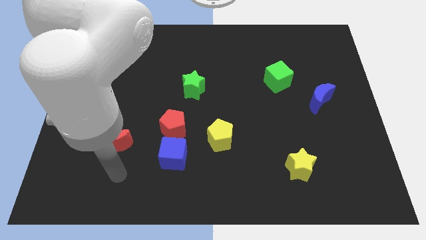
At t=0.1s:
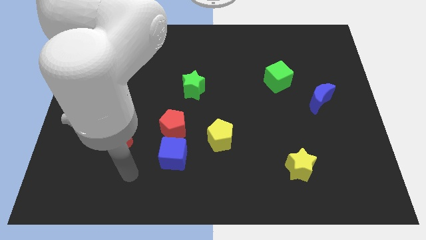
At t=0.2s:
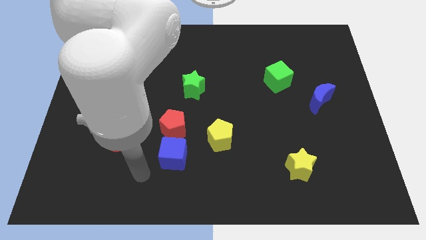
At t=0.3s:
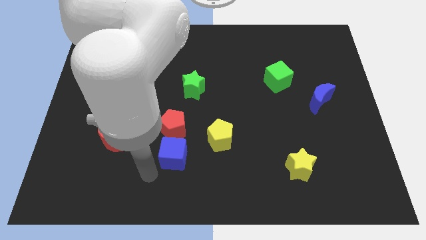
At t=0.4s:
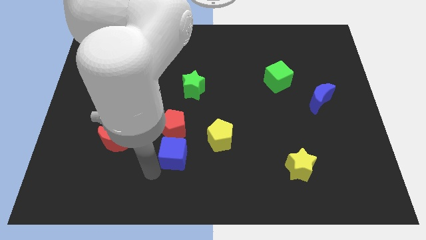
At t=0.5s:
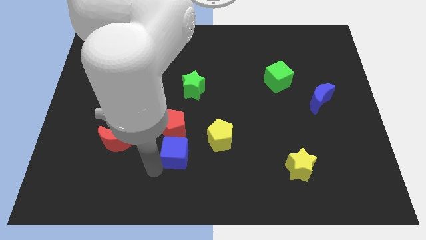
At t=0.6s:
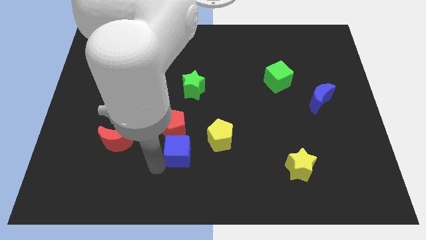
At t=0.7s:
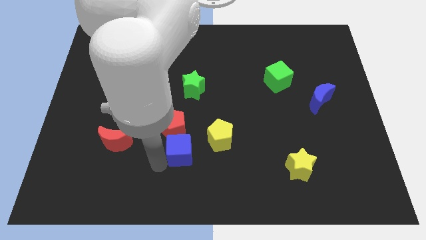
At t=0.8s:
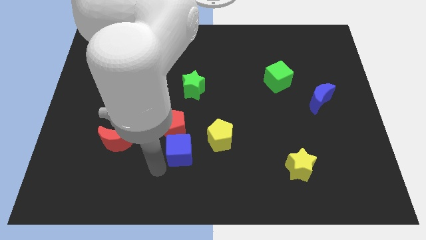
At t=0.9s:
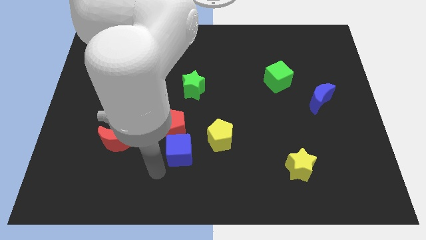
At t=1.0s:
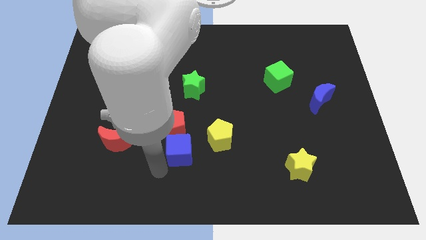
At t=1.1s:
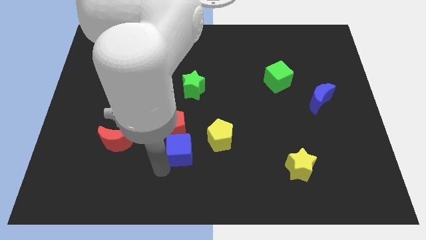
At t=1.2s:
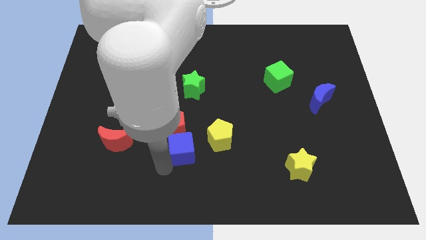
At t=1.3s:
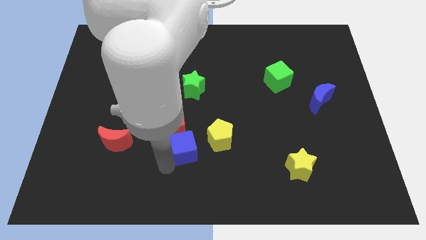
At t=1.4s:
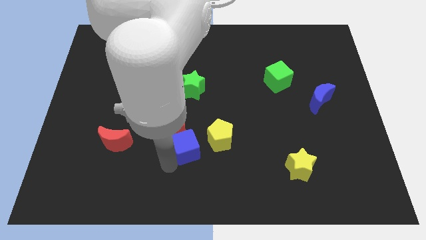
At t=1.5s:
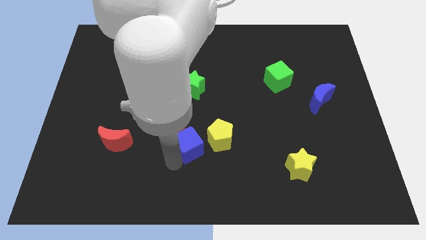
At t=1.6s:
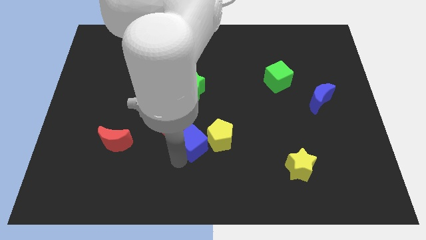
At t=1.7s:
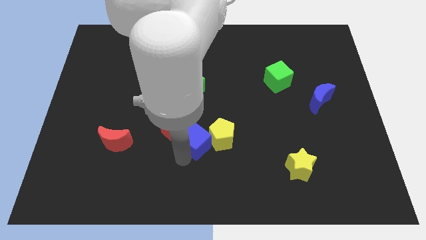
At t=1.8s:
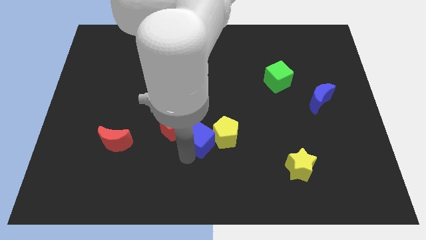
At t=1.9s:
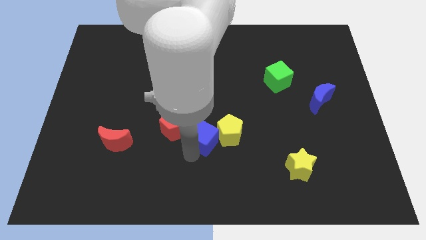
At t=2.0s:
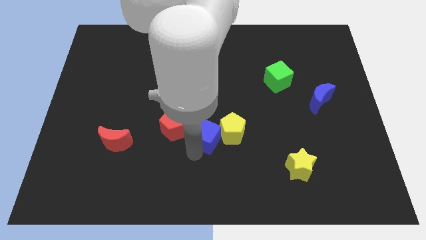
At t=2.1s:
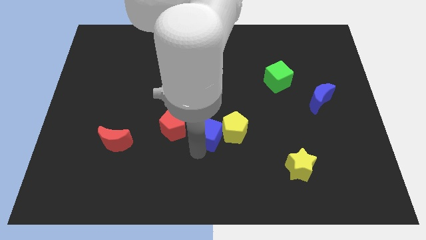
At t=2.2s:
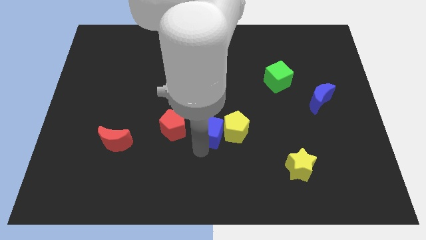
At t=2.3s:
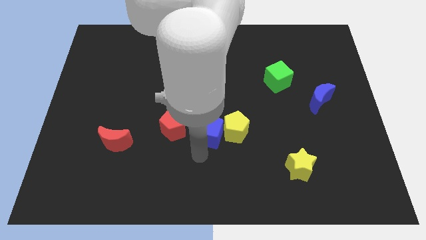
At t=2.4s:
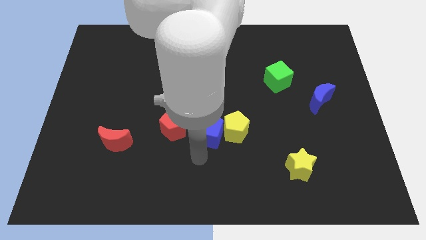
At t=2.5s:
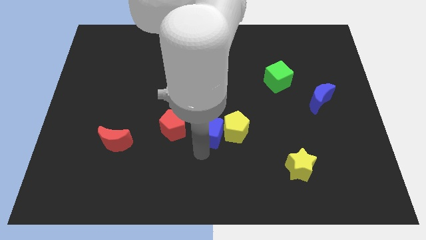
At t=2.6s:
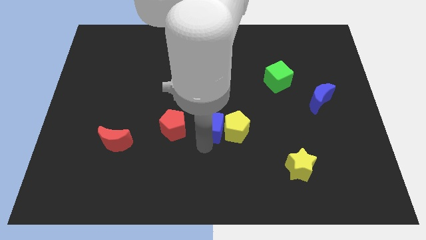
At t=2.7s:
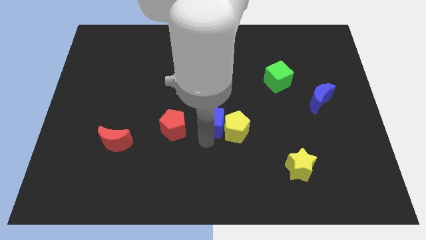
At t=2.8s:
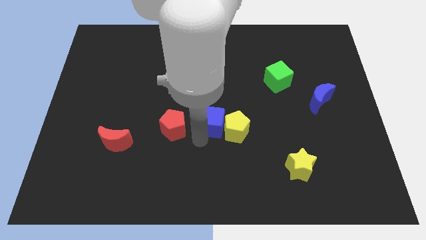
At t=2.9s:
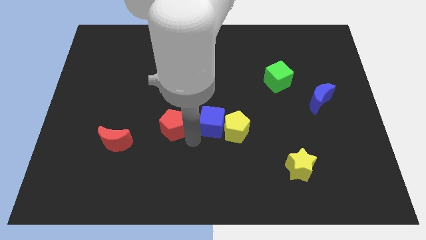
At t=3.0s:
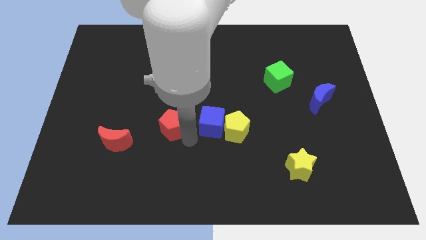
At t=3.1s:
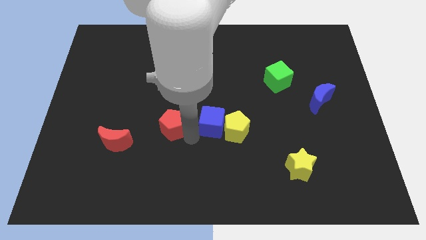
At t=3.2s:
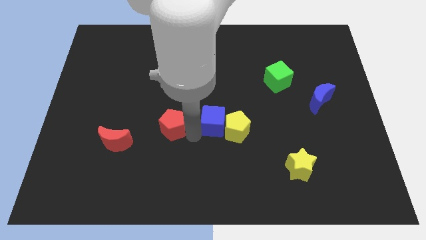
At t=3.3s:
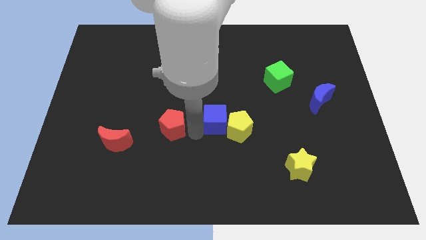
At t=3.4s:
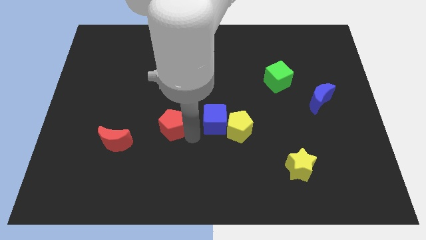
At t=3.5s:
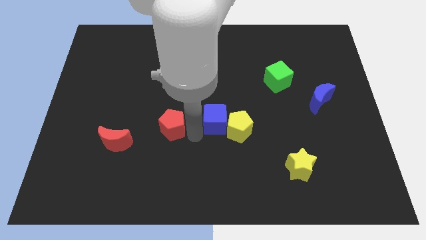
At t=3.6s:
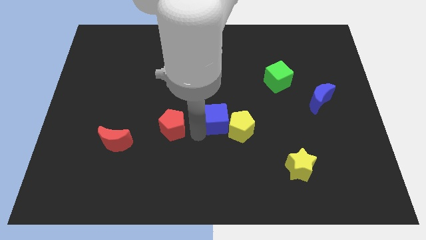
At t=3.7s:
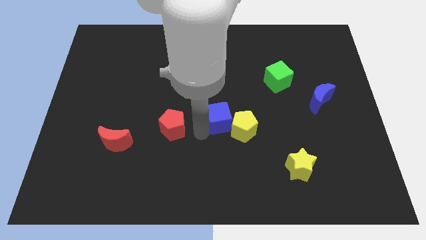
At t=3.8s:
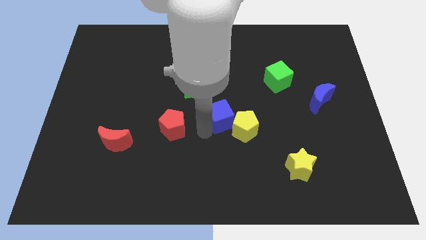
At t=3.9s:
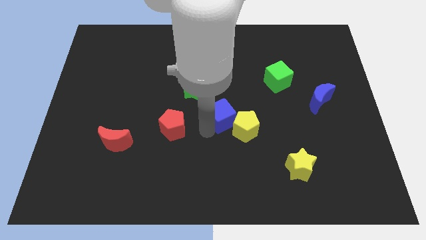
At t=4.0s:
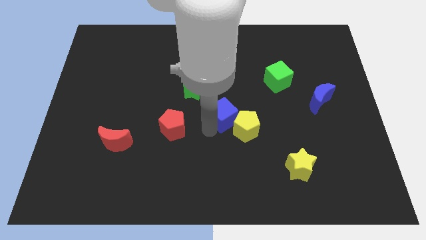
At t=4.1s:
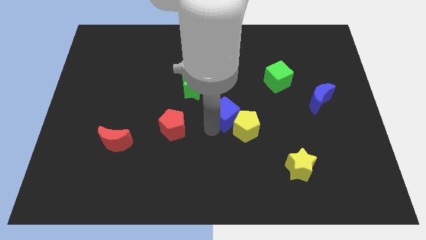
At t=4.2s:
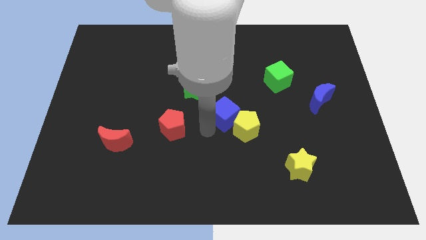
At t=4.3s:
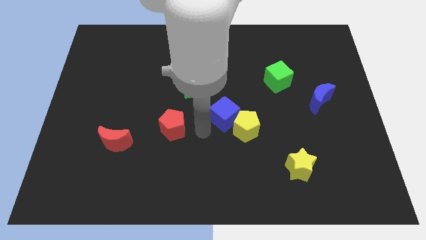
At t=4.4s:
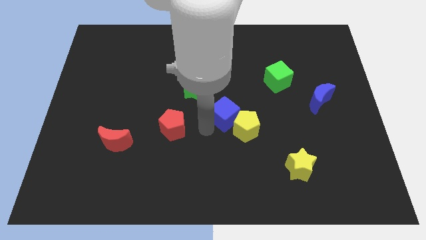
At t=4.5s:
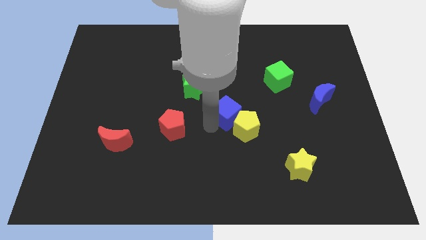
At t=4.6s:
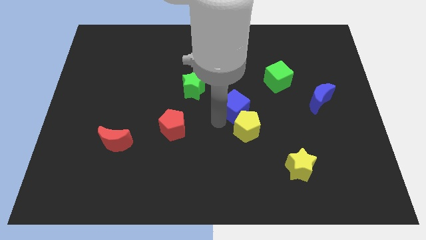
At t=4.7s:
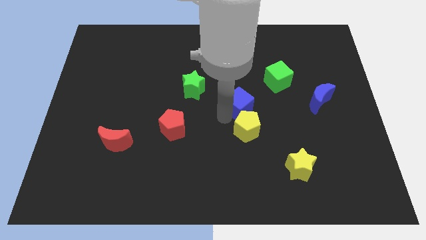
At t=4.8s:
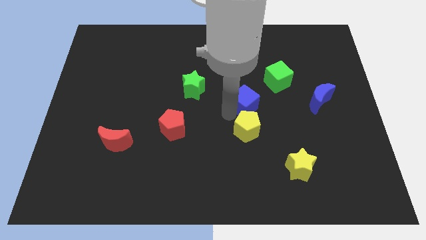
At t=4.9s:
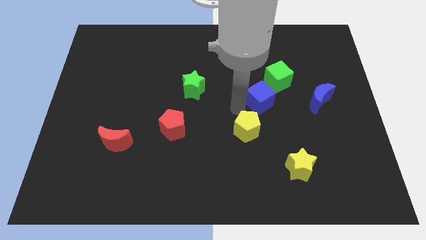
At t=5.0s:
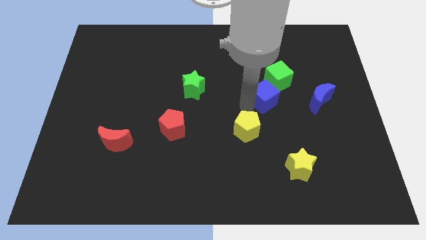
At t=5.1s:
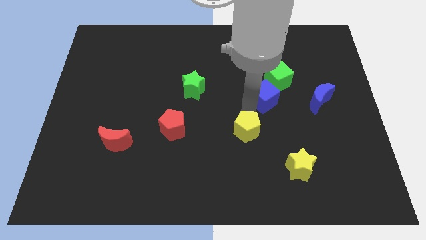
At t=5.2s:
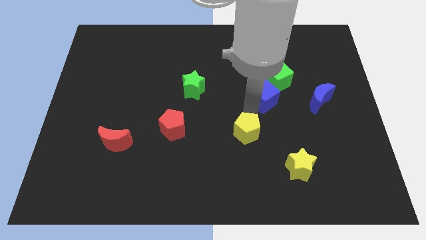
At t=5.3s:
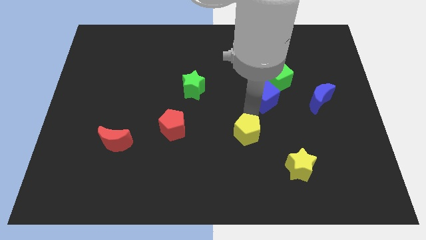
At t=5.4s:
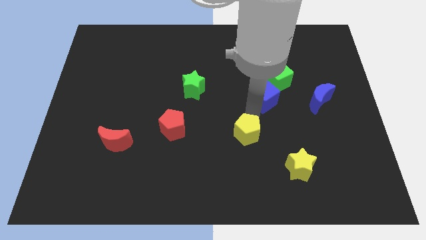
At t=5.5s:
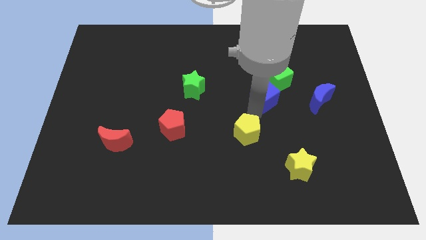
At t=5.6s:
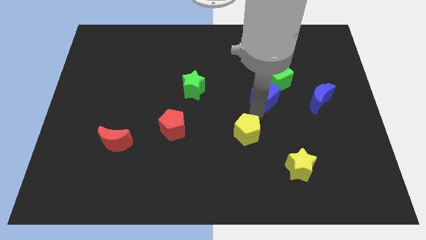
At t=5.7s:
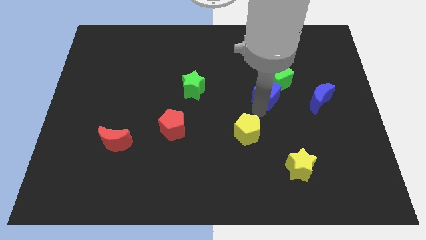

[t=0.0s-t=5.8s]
put the blue cube towards the green cube

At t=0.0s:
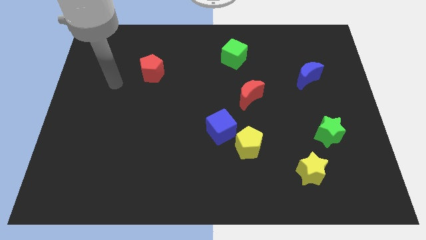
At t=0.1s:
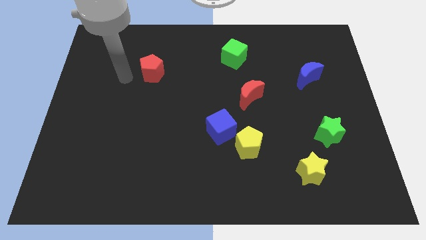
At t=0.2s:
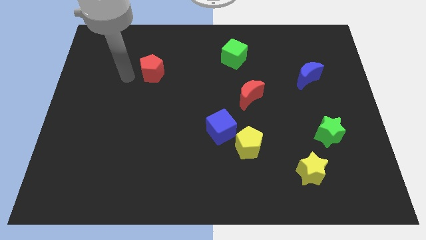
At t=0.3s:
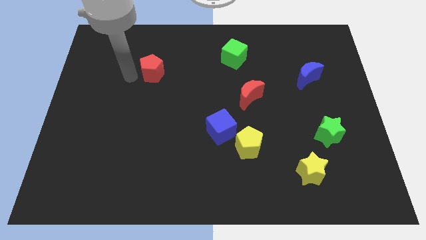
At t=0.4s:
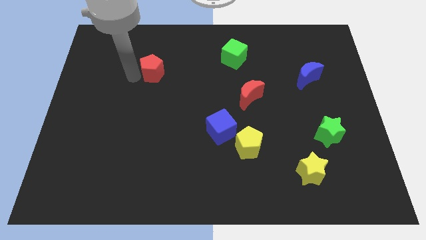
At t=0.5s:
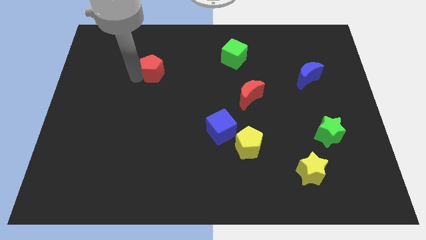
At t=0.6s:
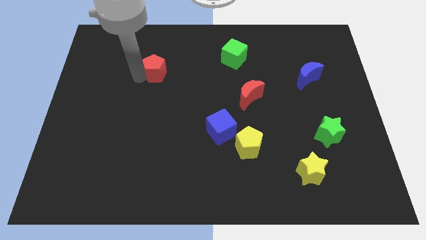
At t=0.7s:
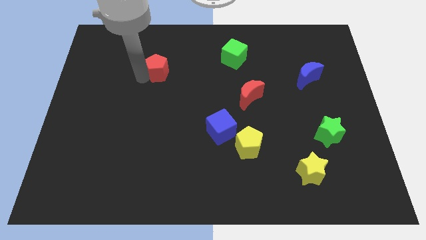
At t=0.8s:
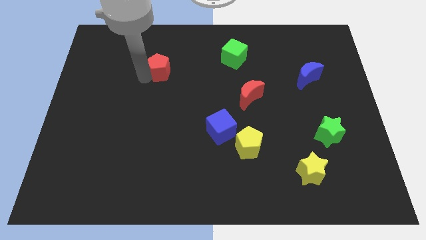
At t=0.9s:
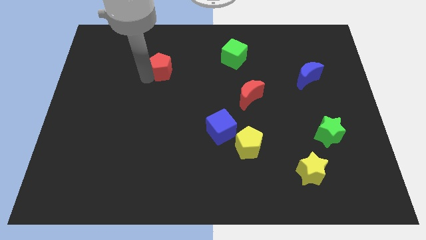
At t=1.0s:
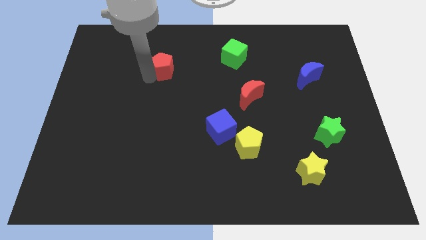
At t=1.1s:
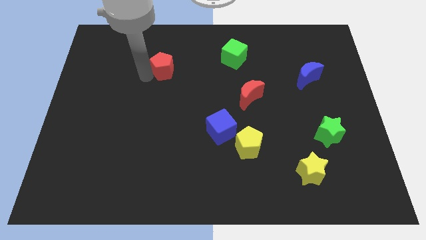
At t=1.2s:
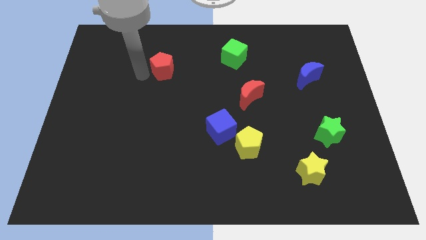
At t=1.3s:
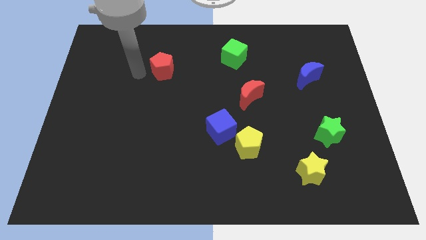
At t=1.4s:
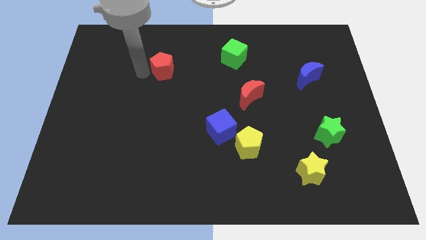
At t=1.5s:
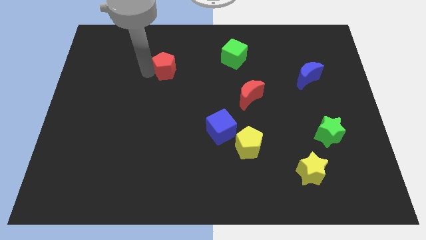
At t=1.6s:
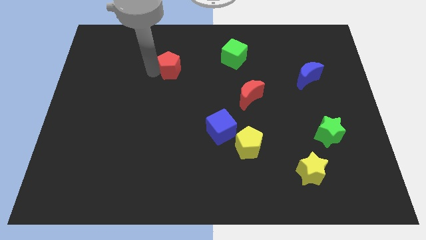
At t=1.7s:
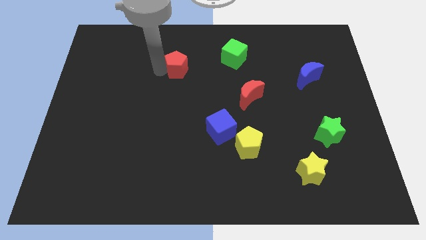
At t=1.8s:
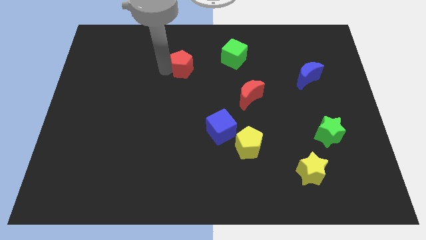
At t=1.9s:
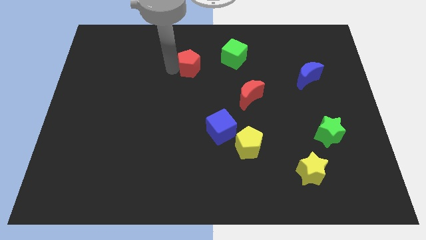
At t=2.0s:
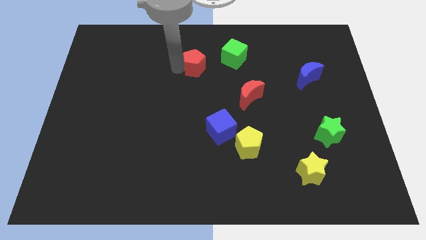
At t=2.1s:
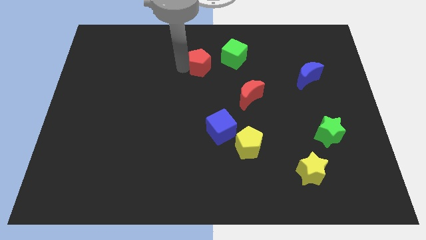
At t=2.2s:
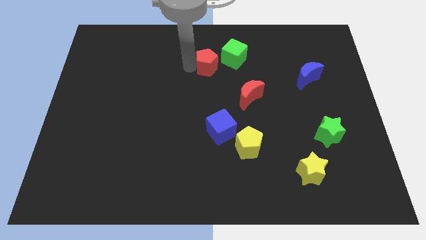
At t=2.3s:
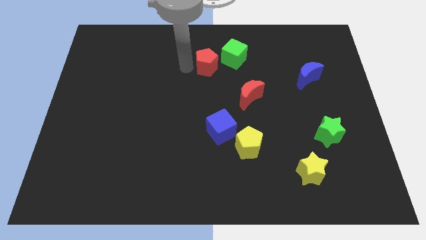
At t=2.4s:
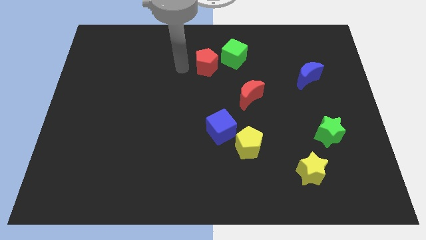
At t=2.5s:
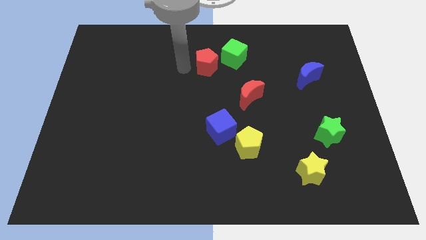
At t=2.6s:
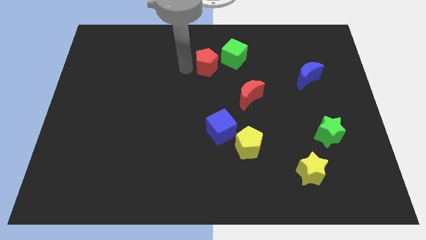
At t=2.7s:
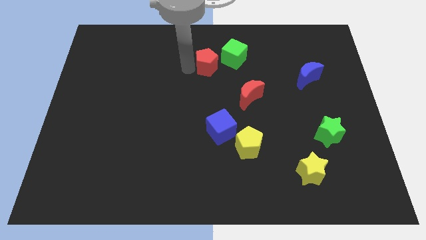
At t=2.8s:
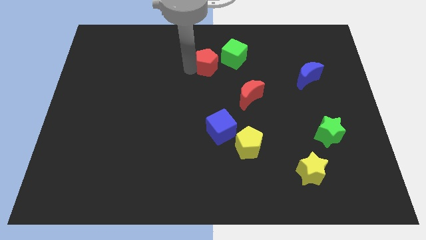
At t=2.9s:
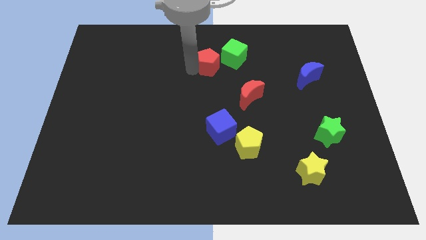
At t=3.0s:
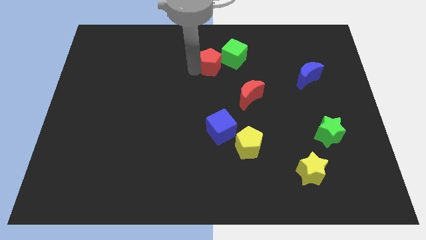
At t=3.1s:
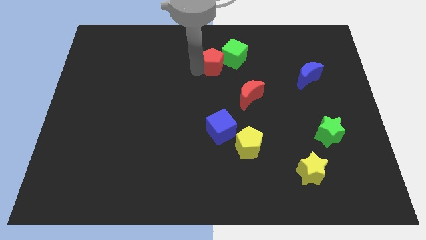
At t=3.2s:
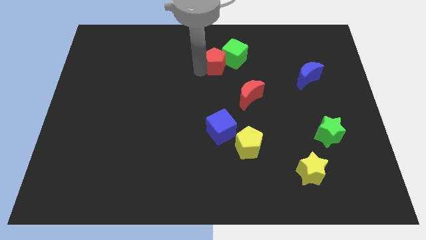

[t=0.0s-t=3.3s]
move the red pentagon next to the green cube
